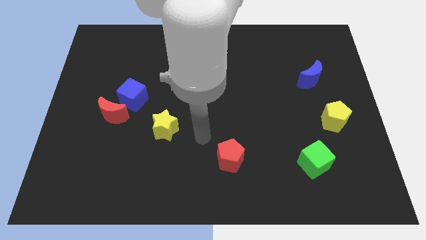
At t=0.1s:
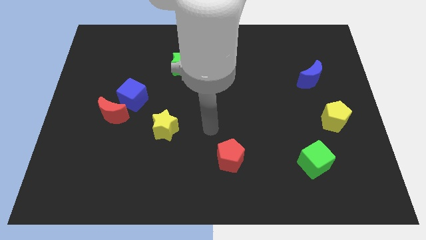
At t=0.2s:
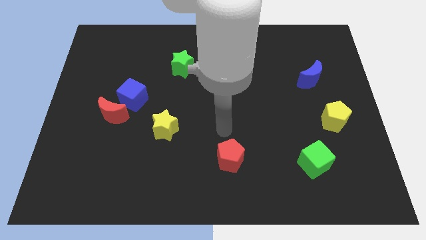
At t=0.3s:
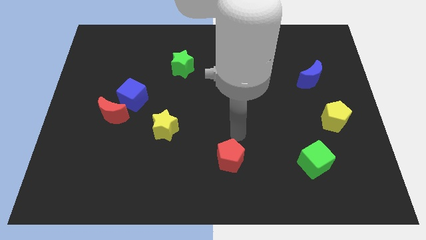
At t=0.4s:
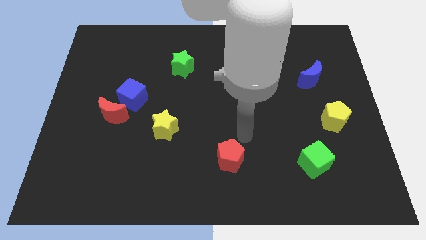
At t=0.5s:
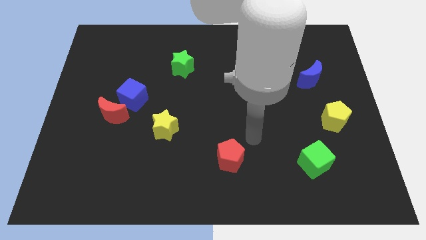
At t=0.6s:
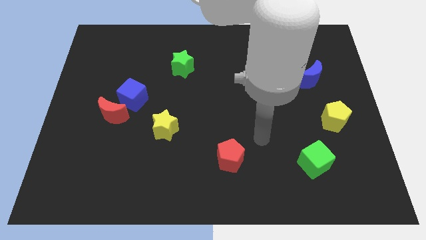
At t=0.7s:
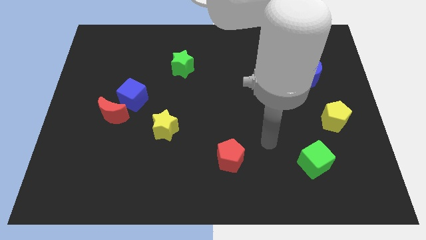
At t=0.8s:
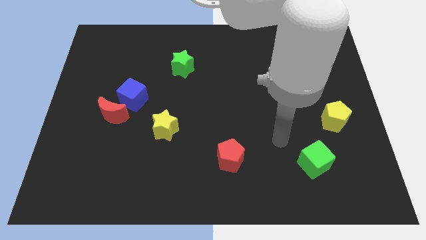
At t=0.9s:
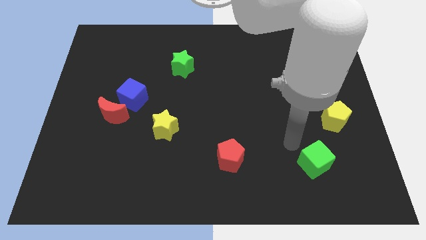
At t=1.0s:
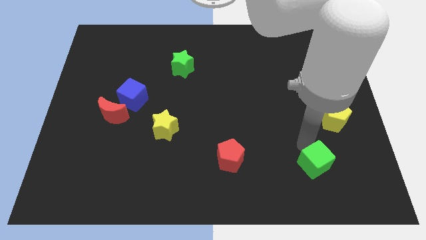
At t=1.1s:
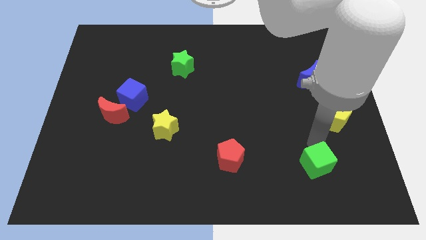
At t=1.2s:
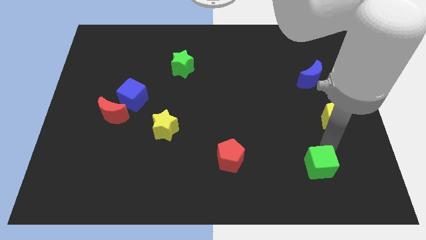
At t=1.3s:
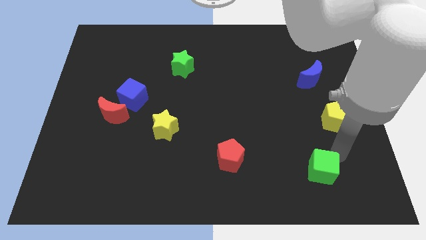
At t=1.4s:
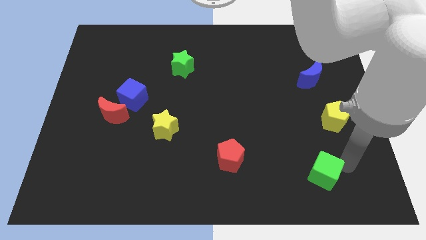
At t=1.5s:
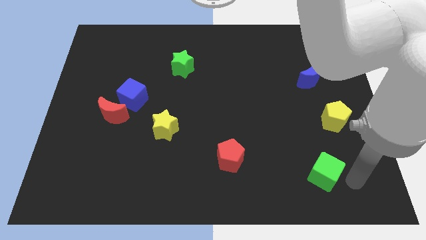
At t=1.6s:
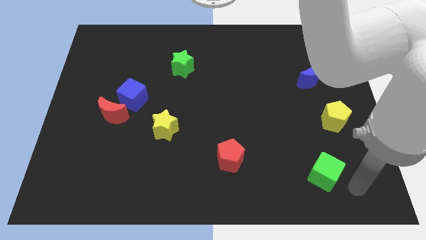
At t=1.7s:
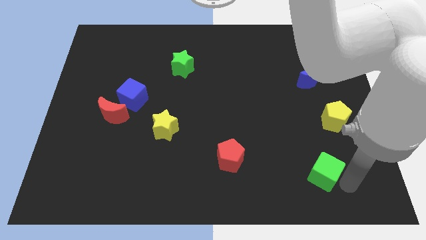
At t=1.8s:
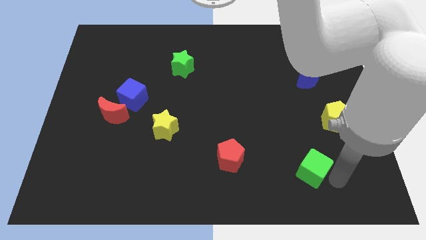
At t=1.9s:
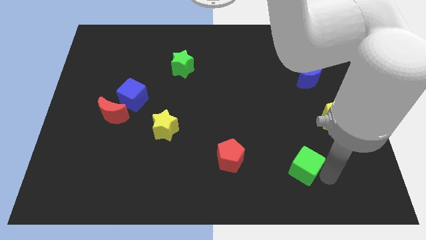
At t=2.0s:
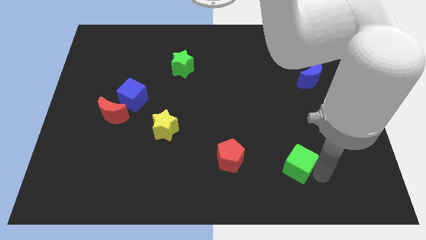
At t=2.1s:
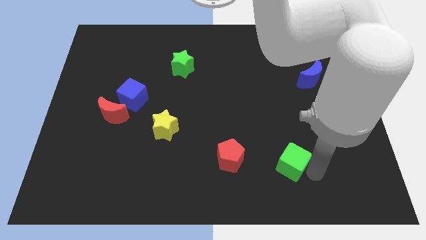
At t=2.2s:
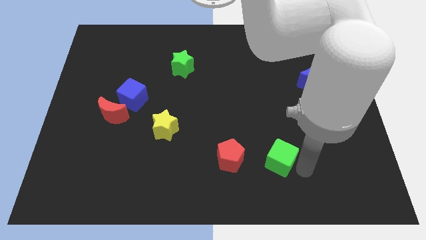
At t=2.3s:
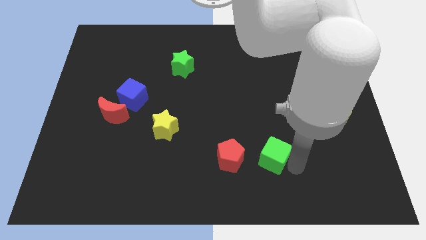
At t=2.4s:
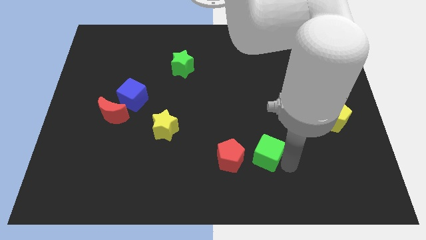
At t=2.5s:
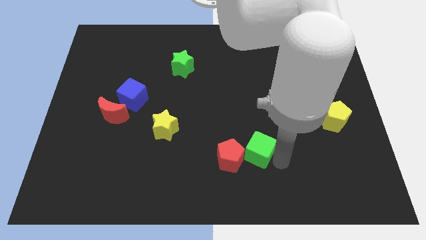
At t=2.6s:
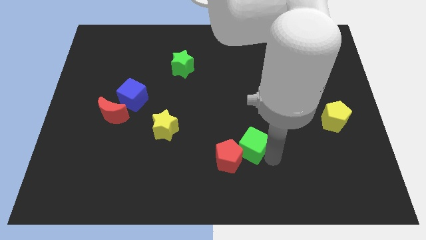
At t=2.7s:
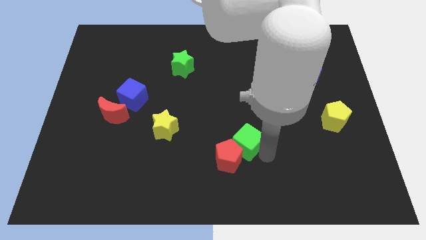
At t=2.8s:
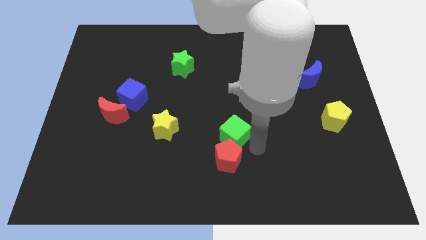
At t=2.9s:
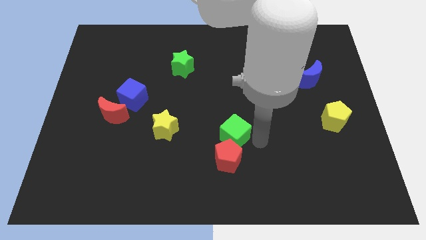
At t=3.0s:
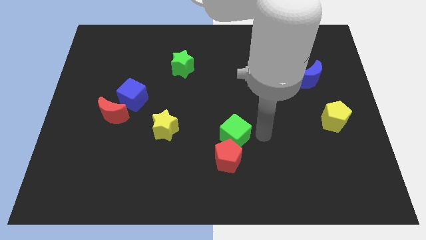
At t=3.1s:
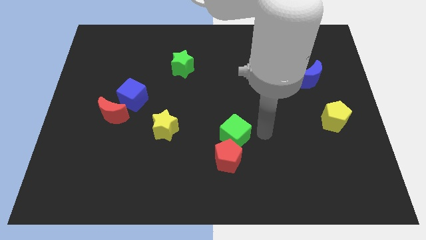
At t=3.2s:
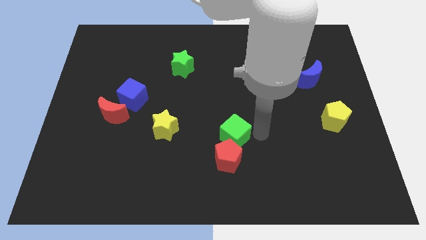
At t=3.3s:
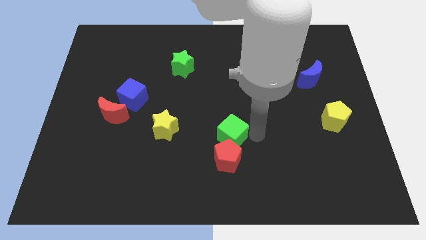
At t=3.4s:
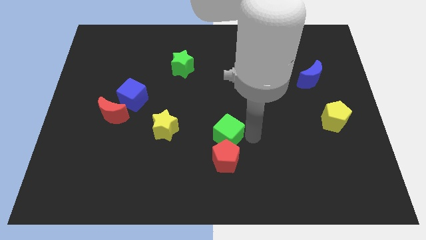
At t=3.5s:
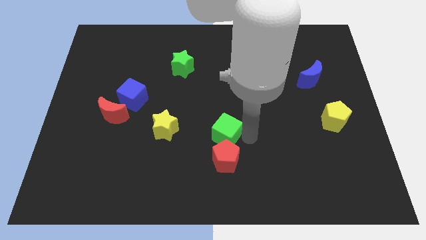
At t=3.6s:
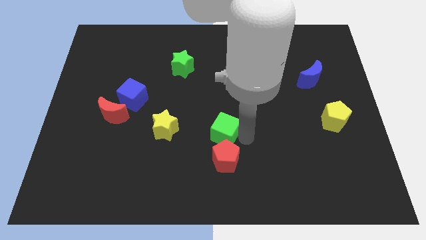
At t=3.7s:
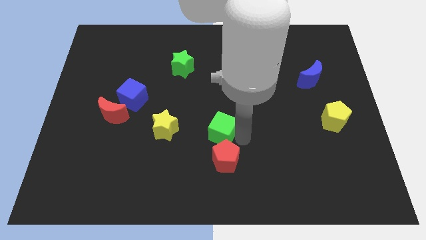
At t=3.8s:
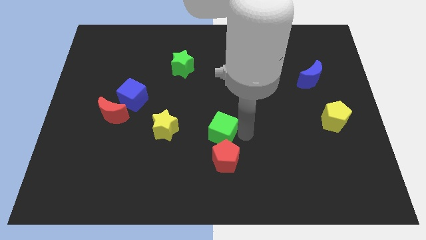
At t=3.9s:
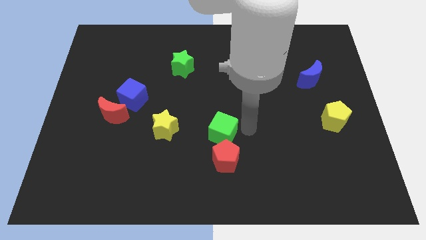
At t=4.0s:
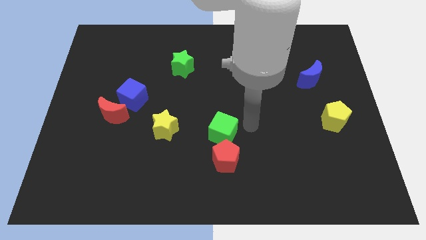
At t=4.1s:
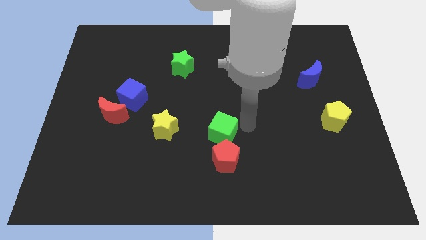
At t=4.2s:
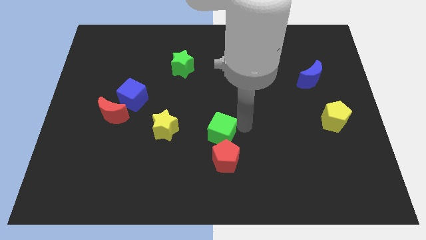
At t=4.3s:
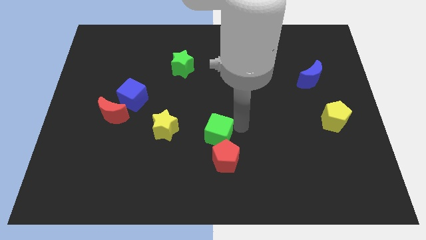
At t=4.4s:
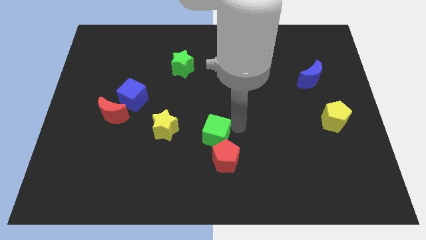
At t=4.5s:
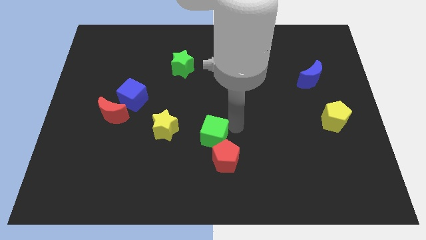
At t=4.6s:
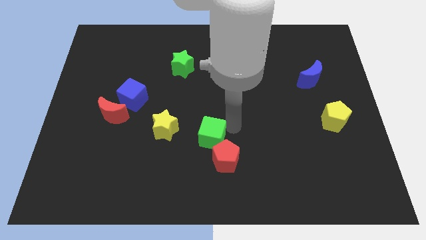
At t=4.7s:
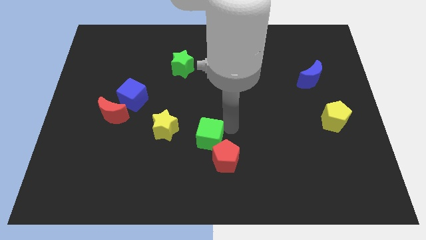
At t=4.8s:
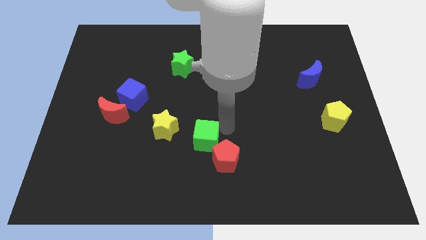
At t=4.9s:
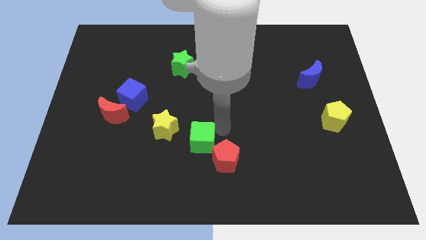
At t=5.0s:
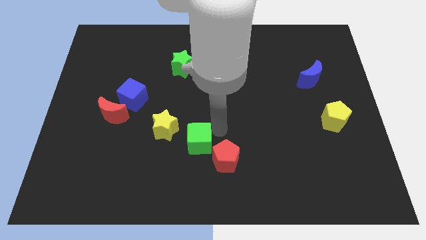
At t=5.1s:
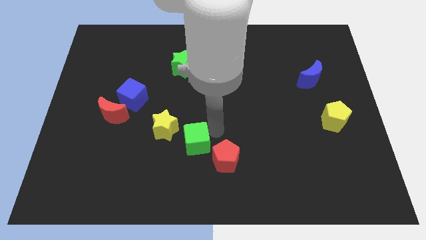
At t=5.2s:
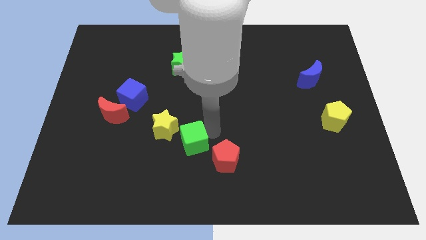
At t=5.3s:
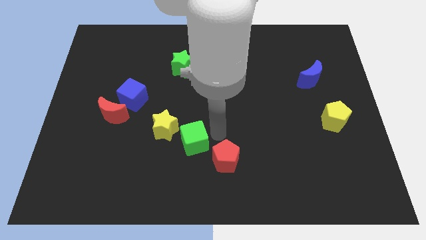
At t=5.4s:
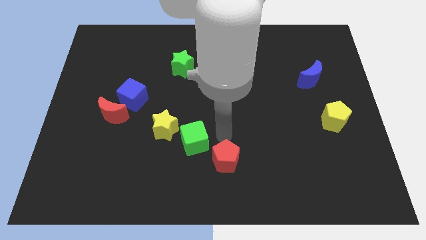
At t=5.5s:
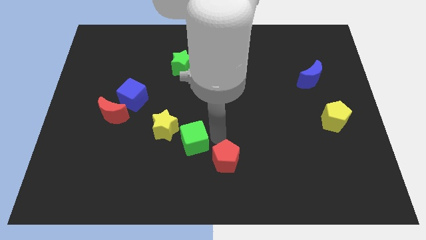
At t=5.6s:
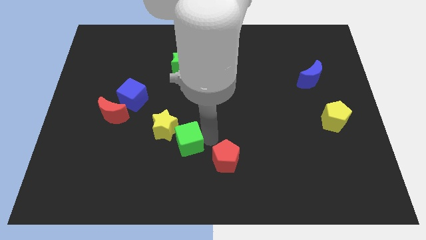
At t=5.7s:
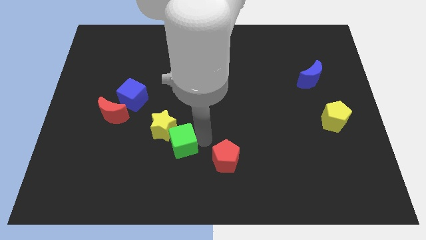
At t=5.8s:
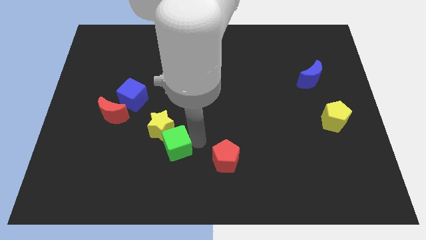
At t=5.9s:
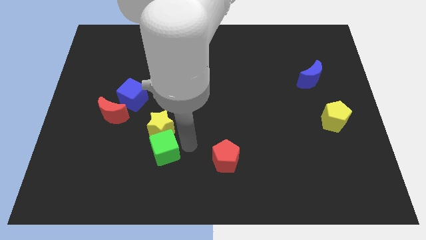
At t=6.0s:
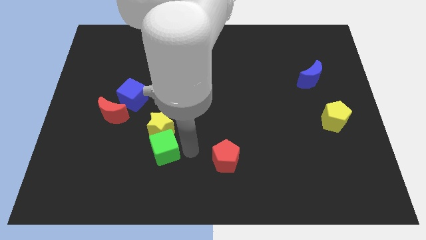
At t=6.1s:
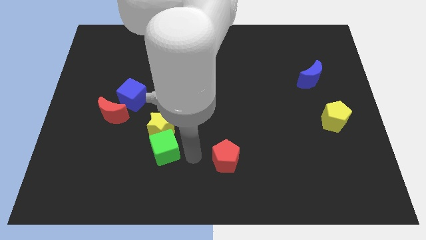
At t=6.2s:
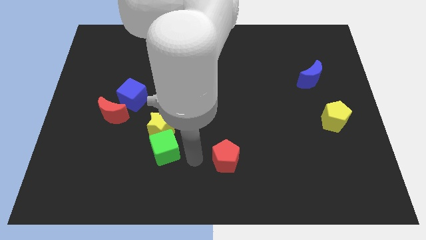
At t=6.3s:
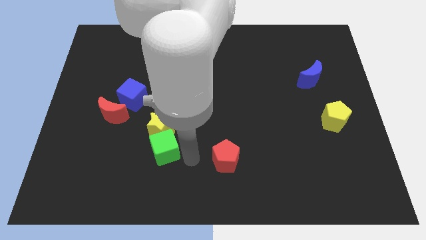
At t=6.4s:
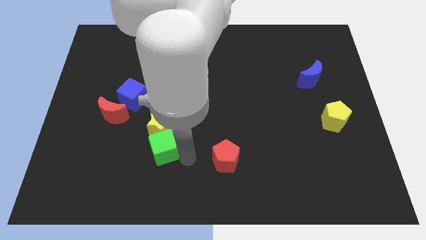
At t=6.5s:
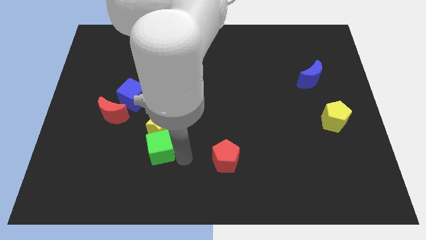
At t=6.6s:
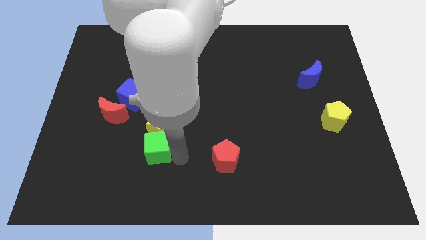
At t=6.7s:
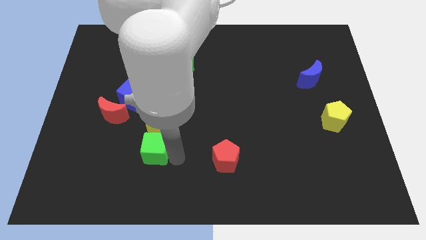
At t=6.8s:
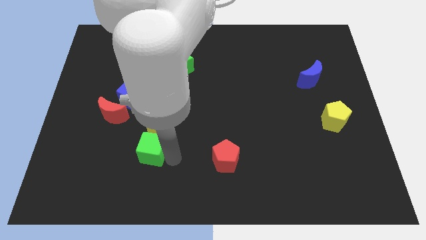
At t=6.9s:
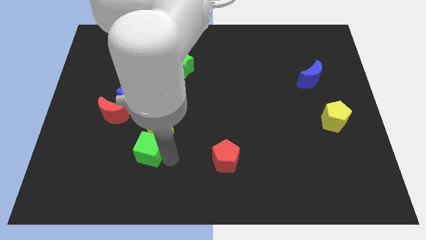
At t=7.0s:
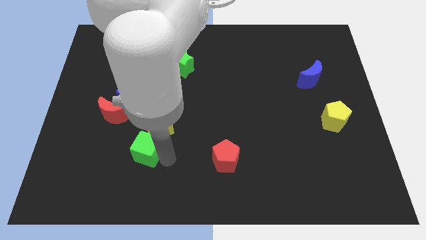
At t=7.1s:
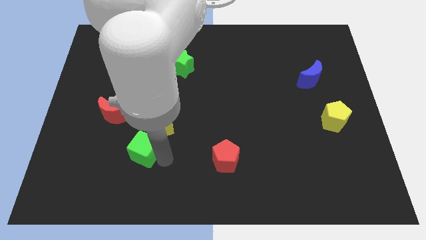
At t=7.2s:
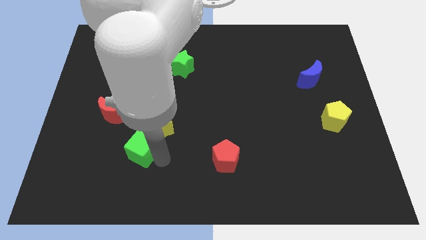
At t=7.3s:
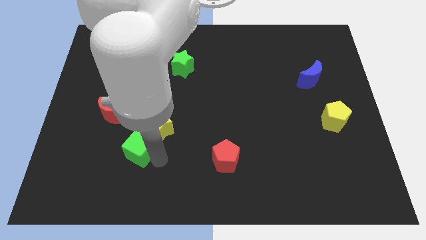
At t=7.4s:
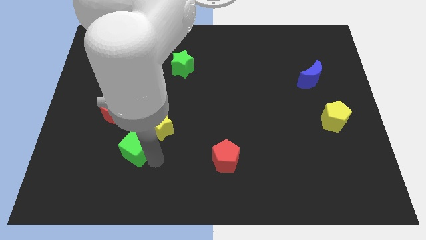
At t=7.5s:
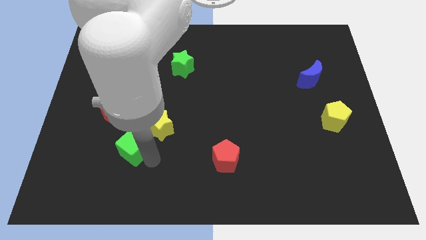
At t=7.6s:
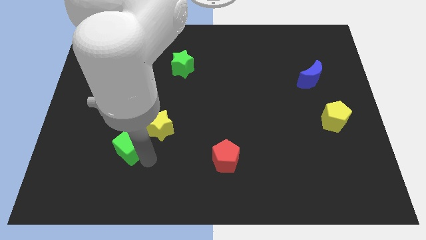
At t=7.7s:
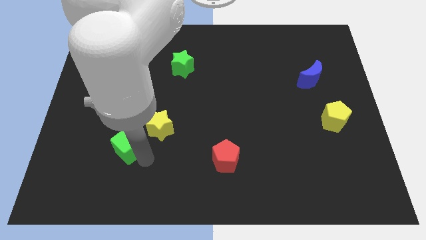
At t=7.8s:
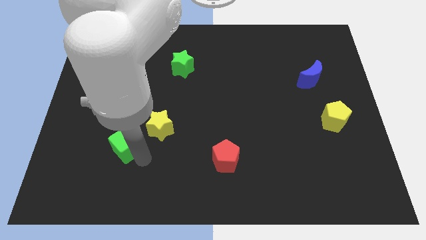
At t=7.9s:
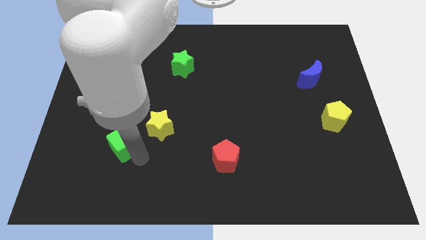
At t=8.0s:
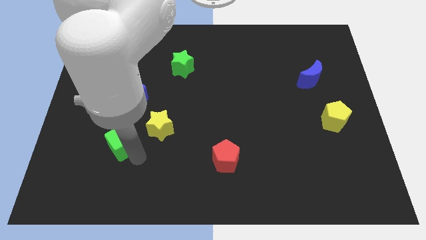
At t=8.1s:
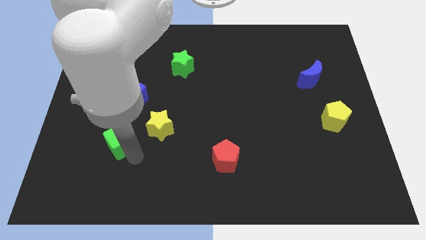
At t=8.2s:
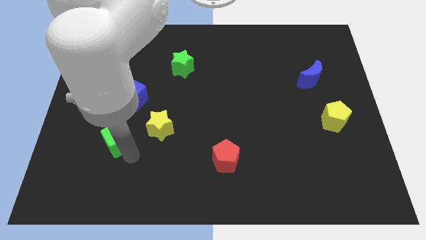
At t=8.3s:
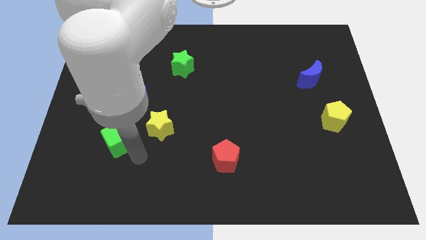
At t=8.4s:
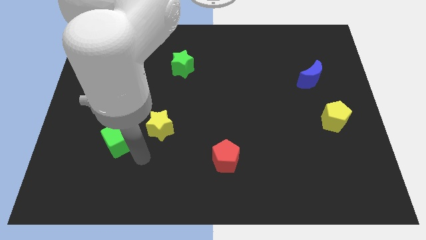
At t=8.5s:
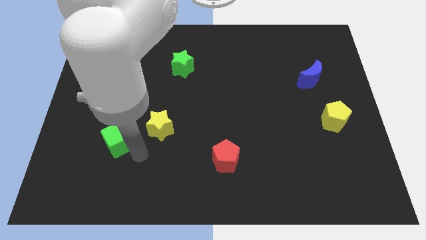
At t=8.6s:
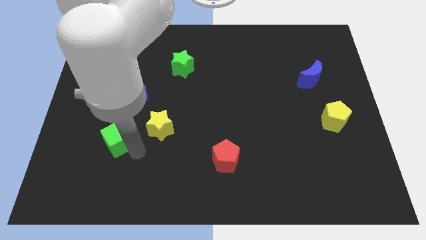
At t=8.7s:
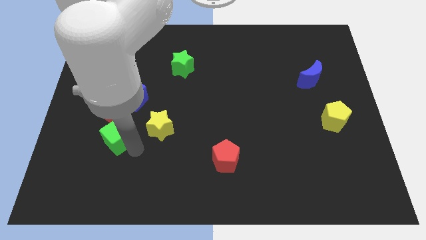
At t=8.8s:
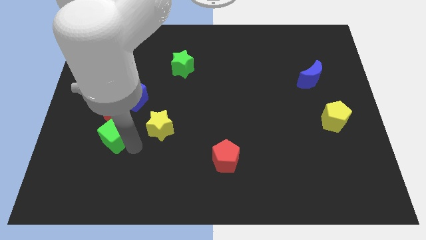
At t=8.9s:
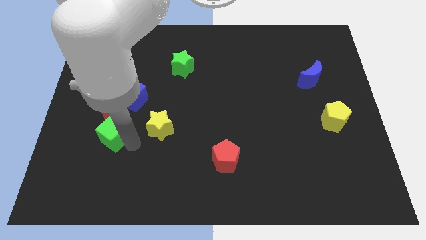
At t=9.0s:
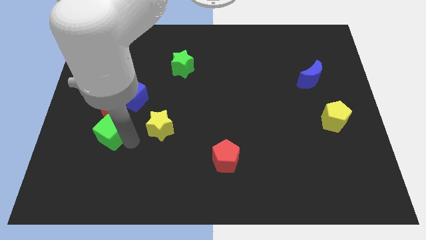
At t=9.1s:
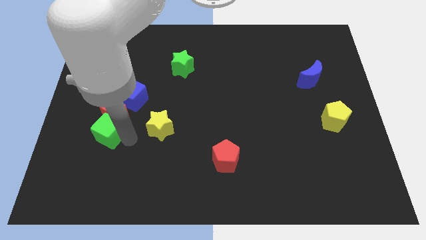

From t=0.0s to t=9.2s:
push the green cube to the bottom left side of the blue cube
